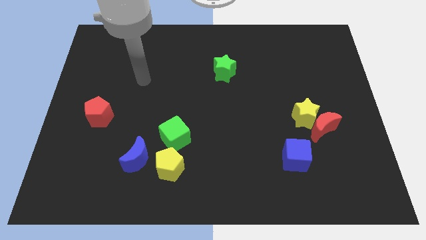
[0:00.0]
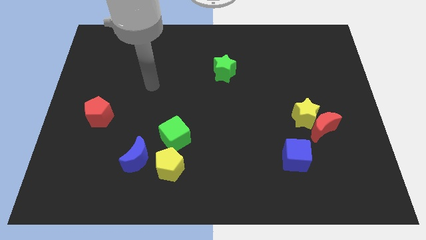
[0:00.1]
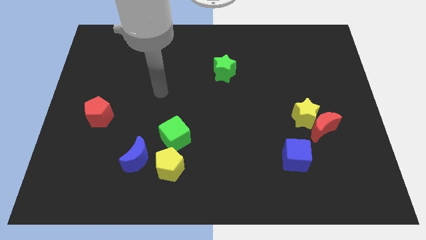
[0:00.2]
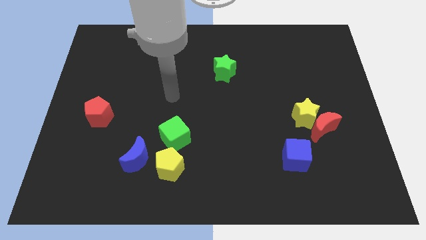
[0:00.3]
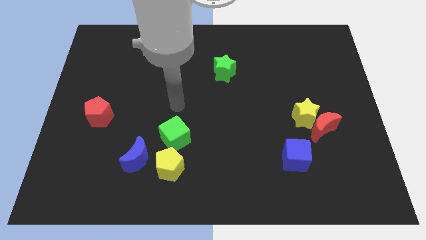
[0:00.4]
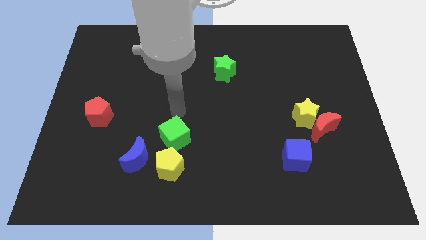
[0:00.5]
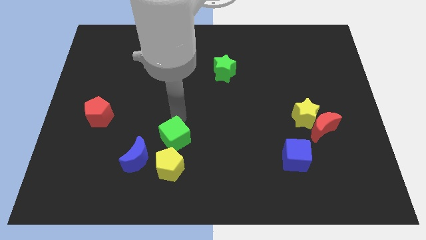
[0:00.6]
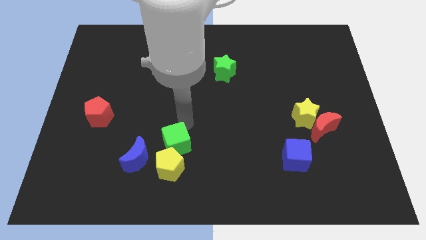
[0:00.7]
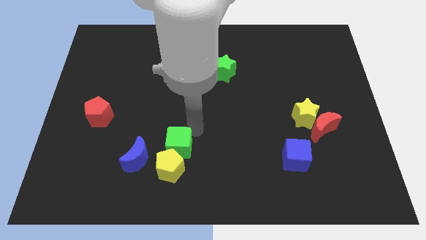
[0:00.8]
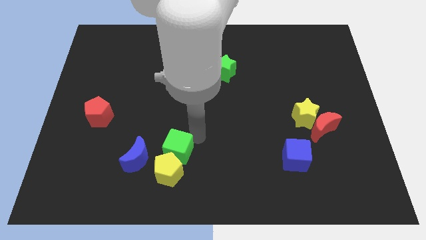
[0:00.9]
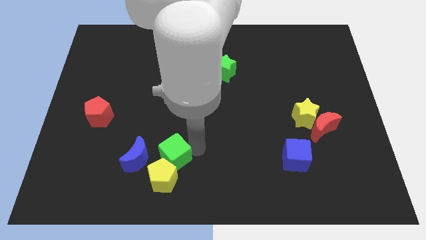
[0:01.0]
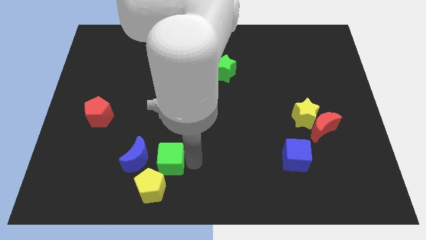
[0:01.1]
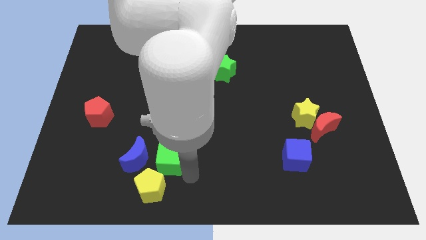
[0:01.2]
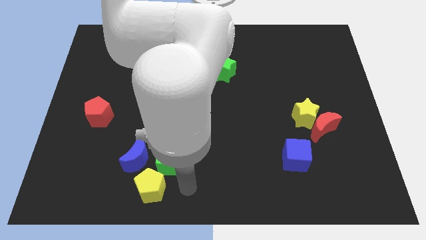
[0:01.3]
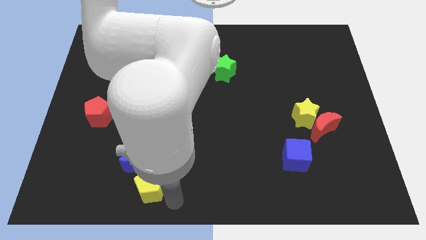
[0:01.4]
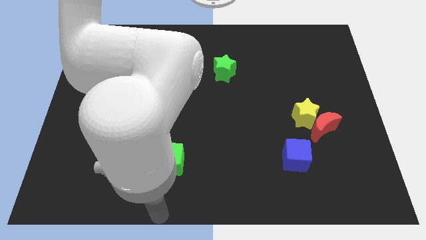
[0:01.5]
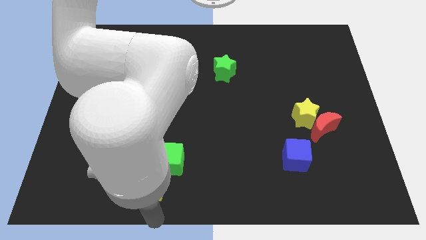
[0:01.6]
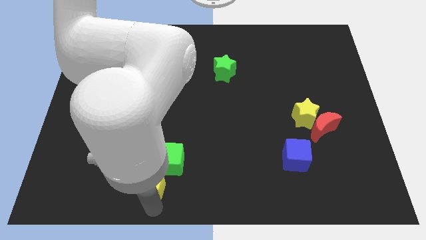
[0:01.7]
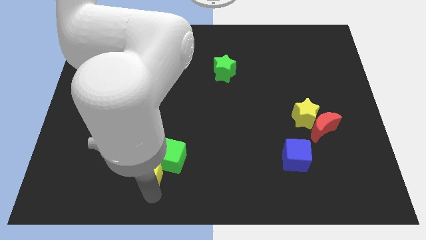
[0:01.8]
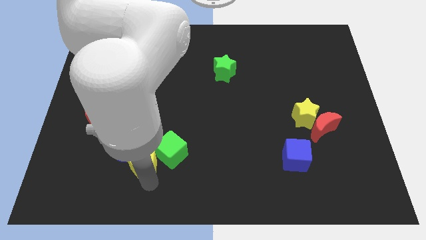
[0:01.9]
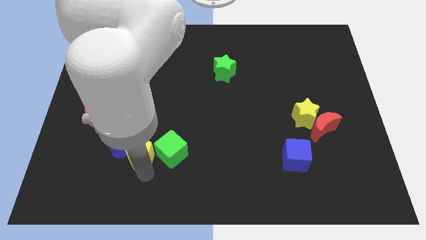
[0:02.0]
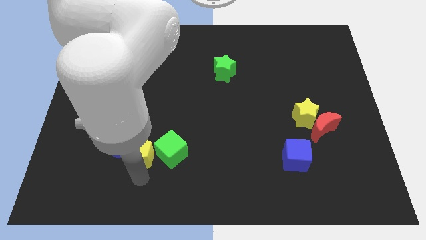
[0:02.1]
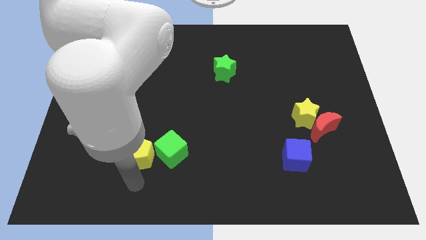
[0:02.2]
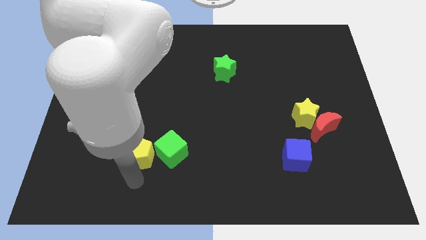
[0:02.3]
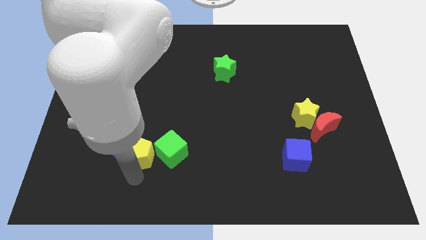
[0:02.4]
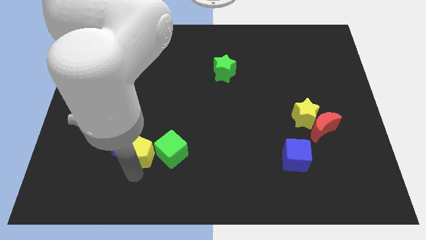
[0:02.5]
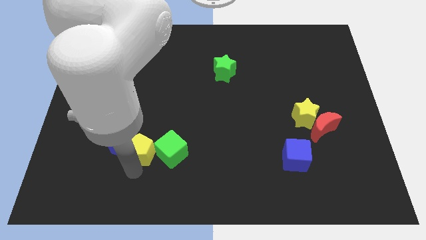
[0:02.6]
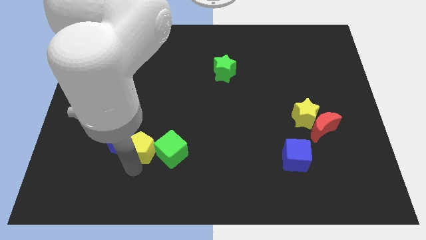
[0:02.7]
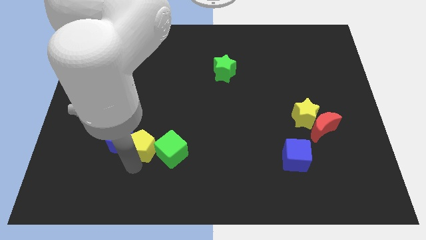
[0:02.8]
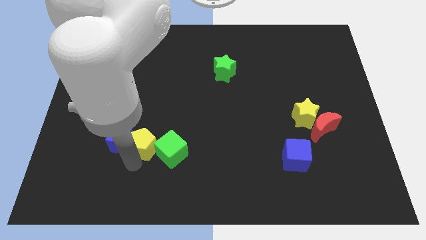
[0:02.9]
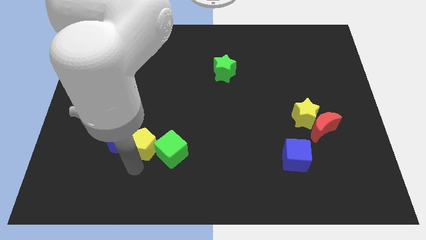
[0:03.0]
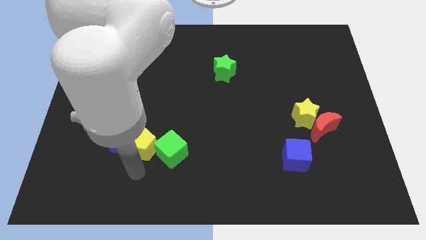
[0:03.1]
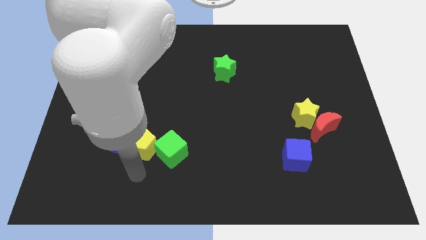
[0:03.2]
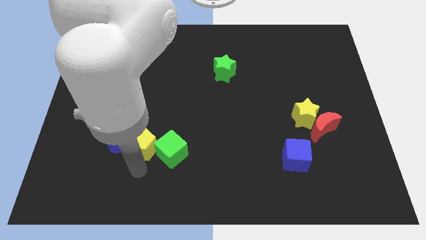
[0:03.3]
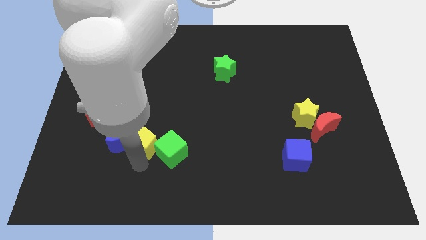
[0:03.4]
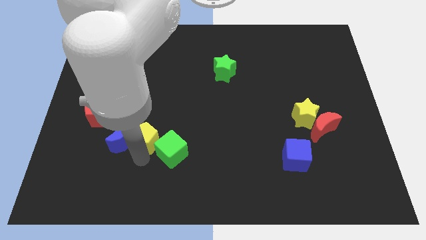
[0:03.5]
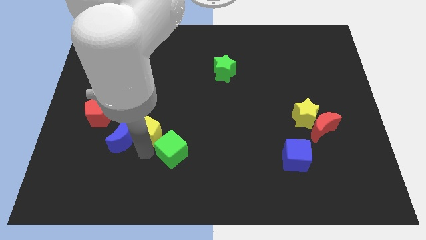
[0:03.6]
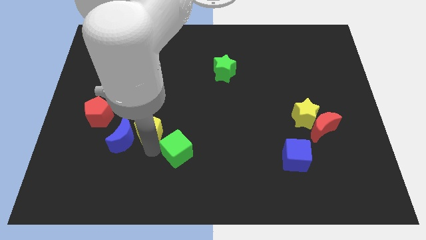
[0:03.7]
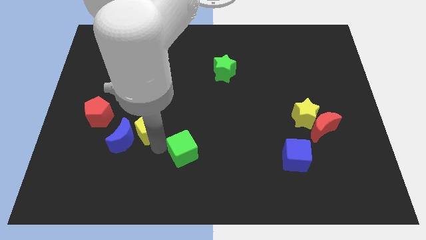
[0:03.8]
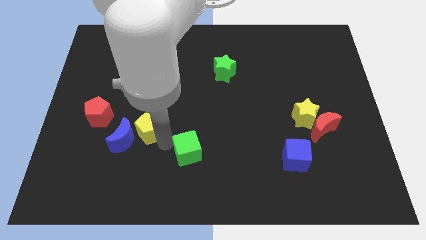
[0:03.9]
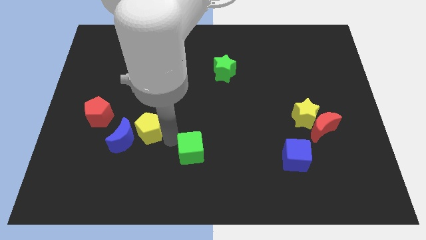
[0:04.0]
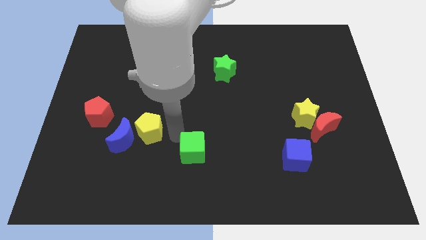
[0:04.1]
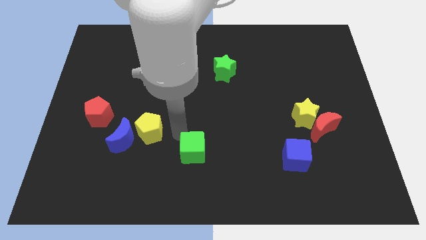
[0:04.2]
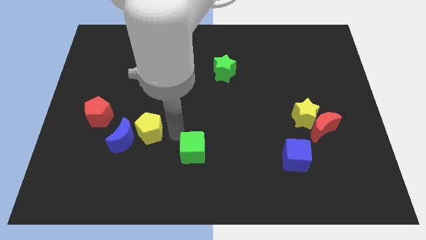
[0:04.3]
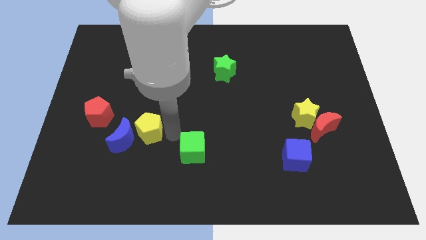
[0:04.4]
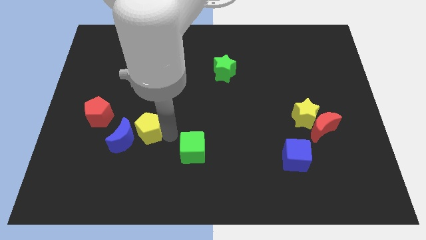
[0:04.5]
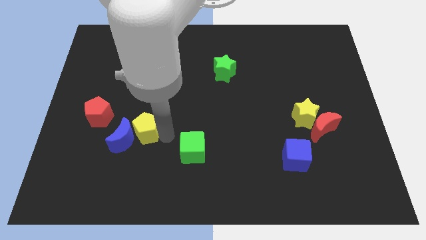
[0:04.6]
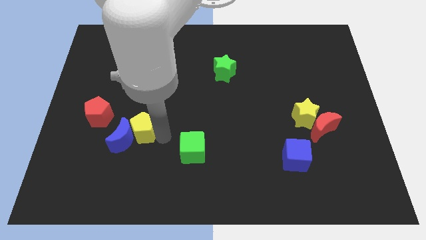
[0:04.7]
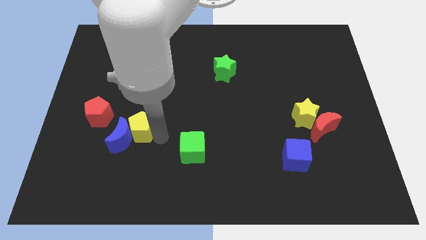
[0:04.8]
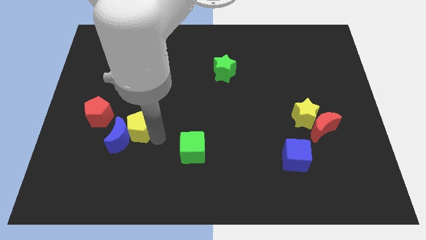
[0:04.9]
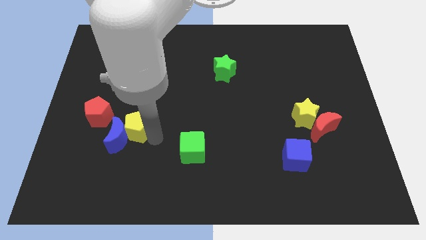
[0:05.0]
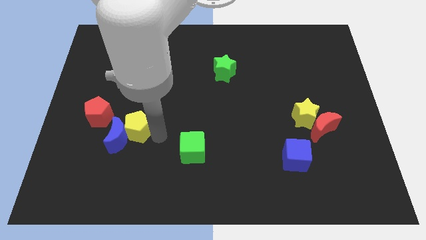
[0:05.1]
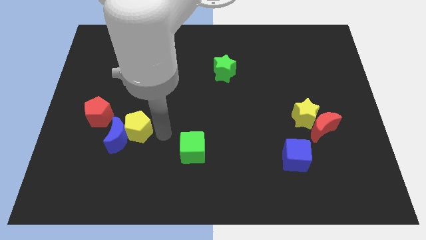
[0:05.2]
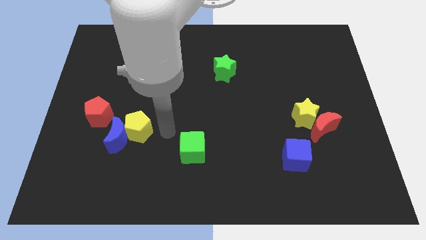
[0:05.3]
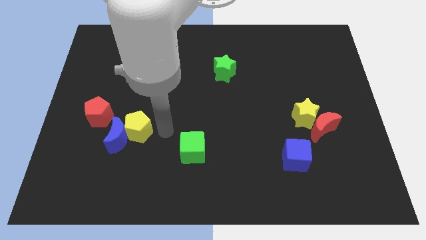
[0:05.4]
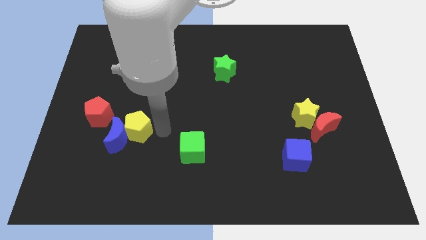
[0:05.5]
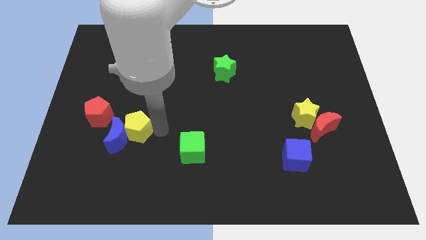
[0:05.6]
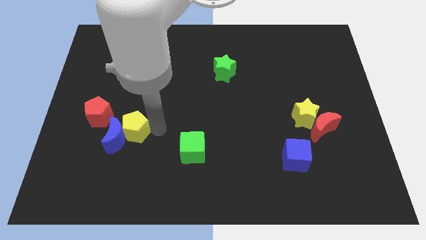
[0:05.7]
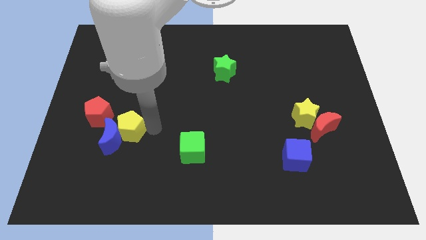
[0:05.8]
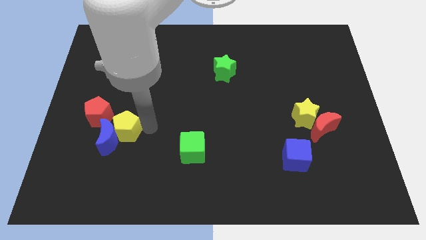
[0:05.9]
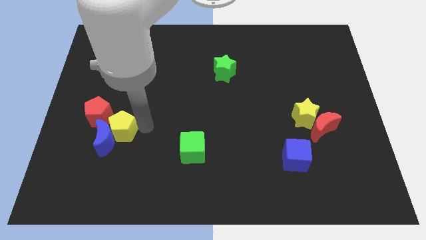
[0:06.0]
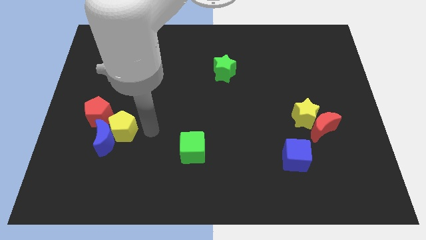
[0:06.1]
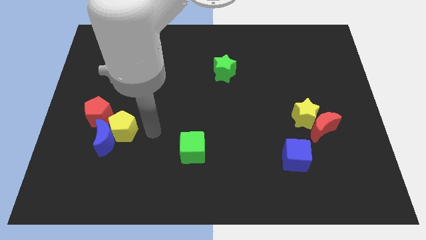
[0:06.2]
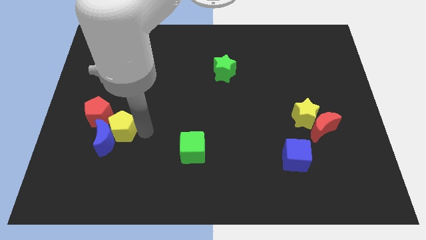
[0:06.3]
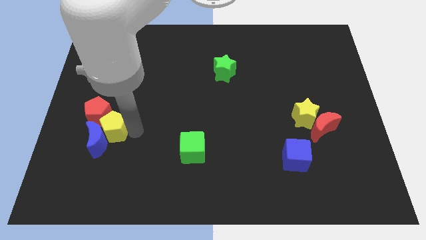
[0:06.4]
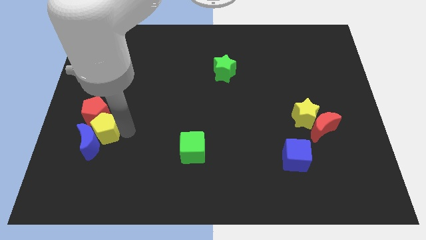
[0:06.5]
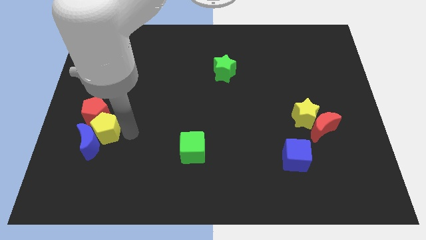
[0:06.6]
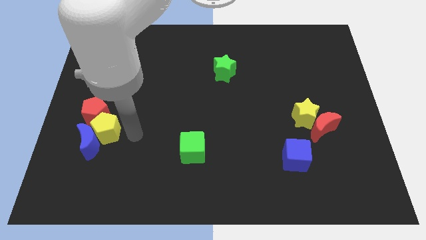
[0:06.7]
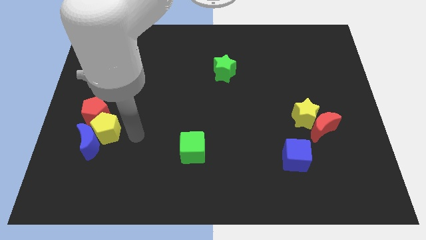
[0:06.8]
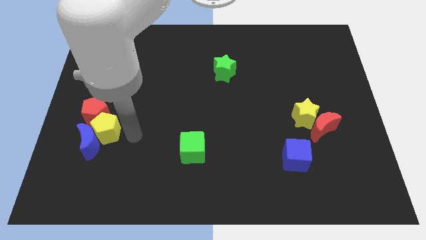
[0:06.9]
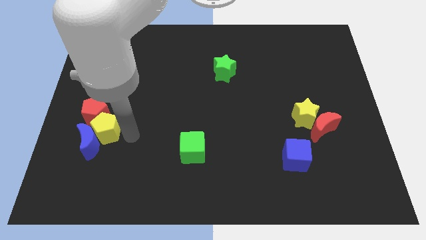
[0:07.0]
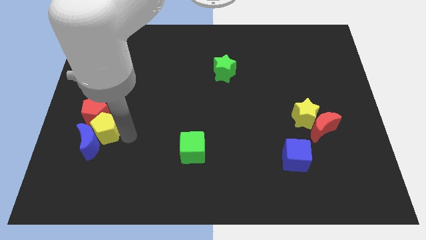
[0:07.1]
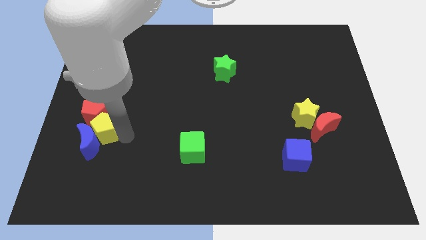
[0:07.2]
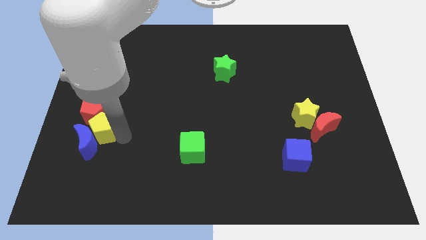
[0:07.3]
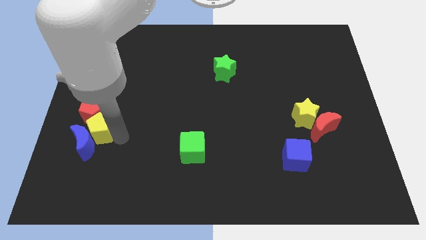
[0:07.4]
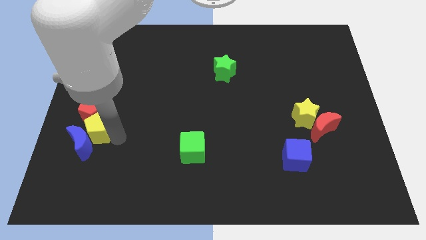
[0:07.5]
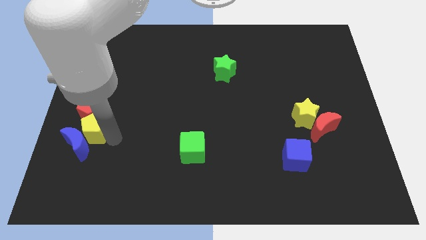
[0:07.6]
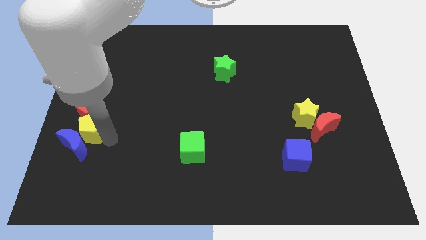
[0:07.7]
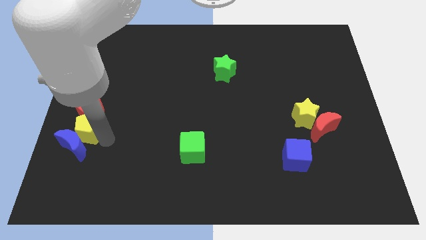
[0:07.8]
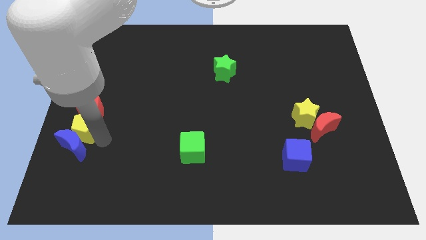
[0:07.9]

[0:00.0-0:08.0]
push the yellow pentagon to the left side of the board
